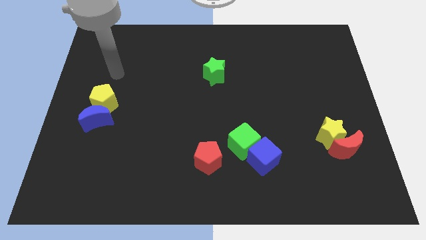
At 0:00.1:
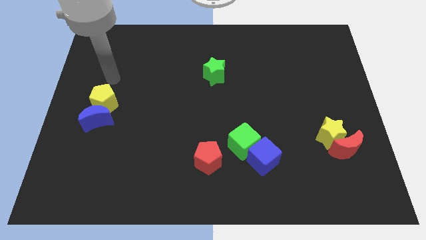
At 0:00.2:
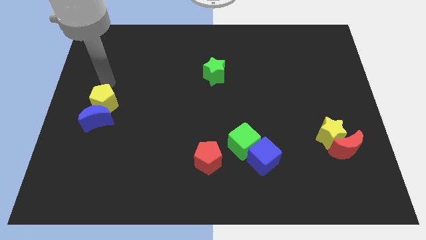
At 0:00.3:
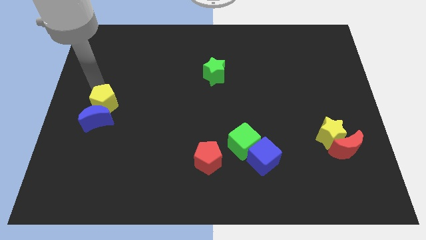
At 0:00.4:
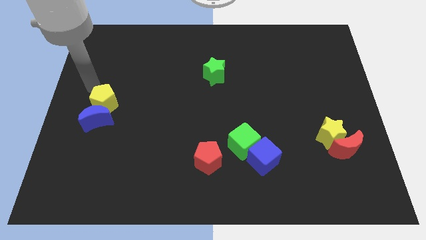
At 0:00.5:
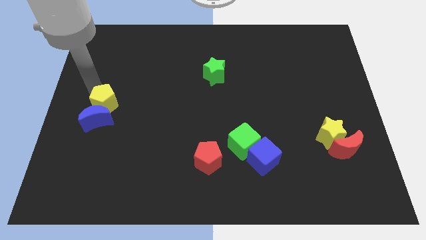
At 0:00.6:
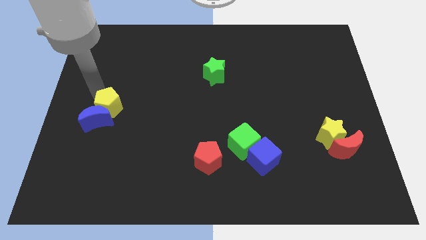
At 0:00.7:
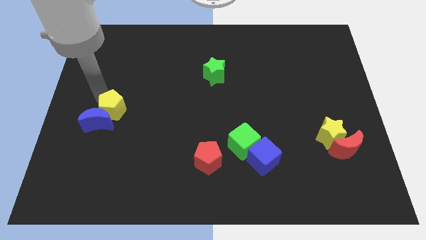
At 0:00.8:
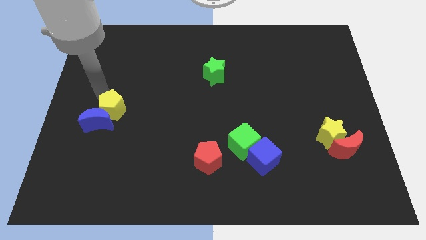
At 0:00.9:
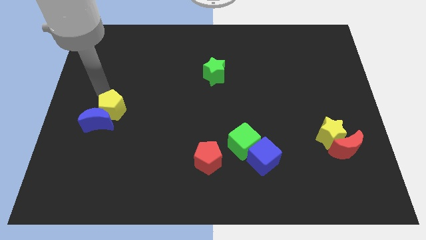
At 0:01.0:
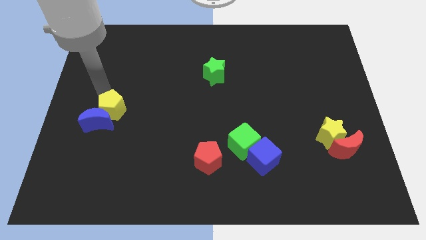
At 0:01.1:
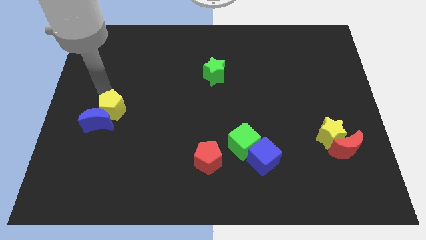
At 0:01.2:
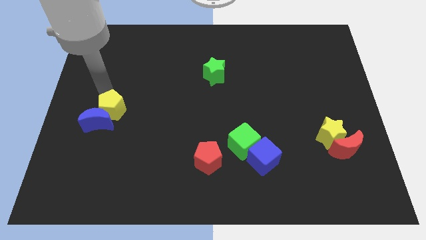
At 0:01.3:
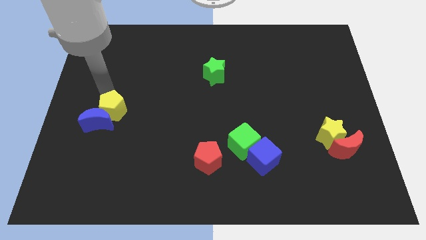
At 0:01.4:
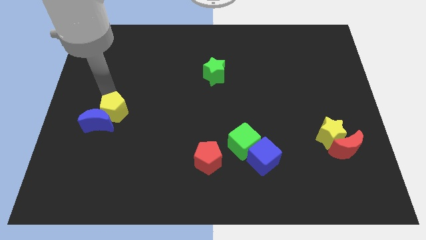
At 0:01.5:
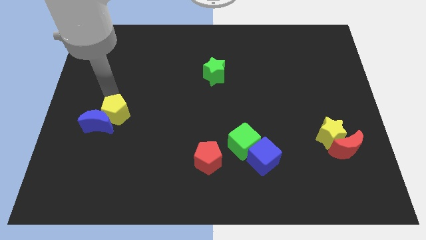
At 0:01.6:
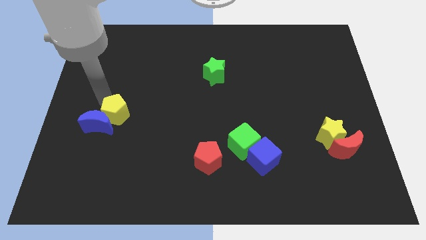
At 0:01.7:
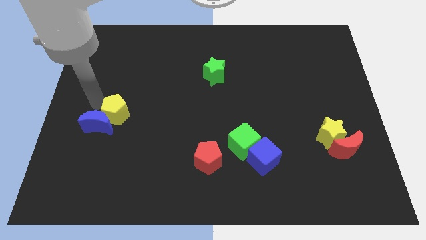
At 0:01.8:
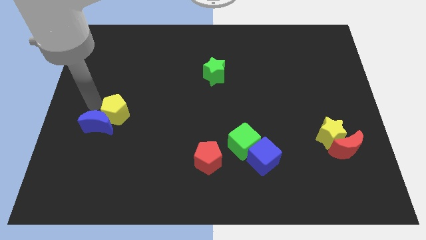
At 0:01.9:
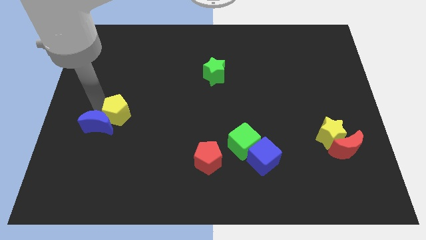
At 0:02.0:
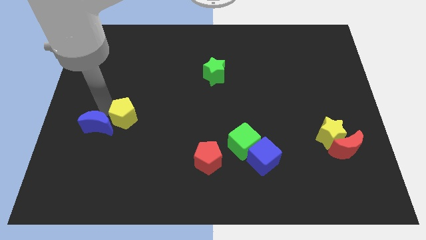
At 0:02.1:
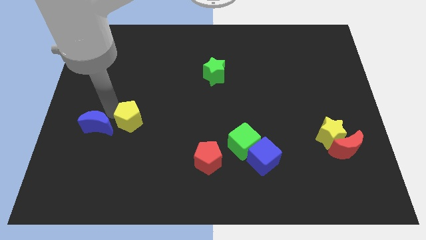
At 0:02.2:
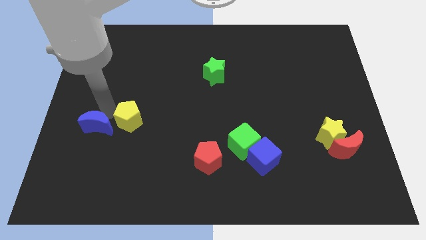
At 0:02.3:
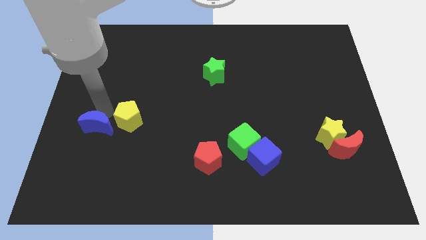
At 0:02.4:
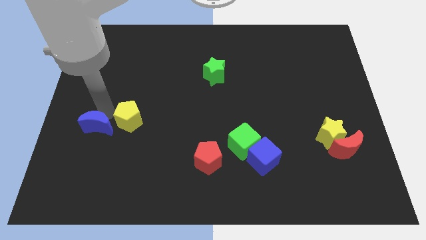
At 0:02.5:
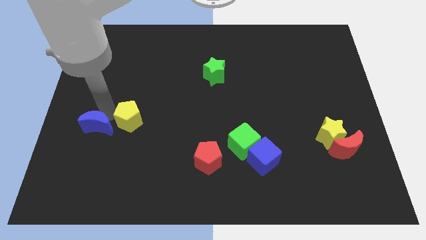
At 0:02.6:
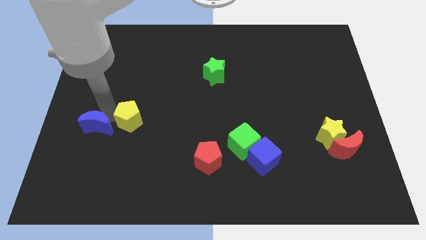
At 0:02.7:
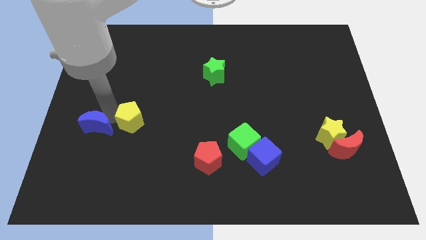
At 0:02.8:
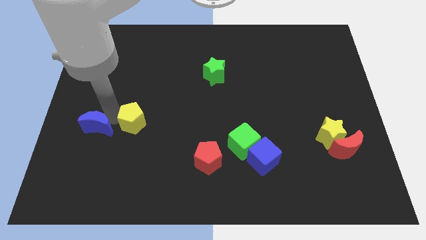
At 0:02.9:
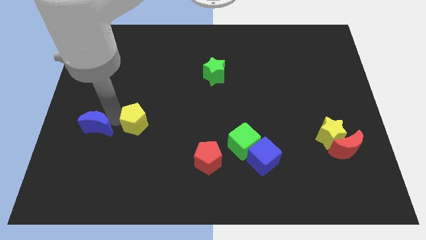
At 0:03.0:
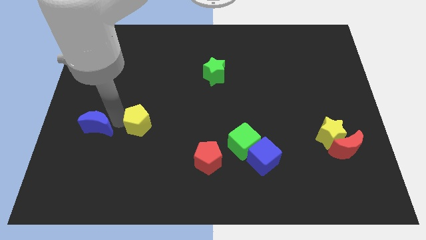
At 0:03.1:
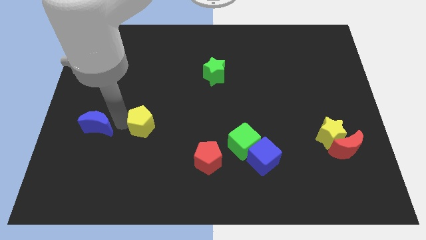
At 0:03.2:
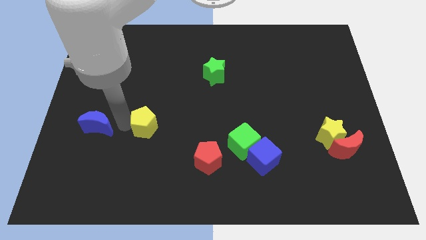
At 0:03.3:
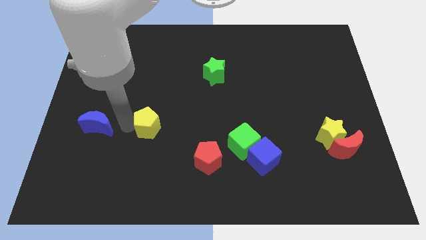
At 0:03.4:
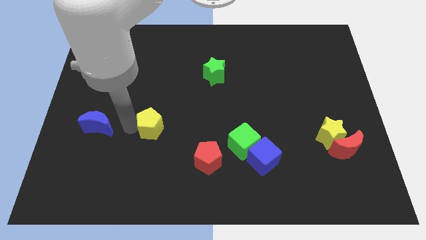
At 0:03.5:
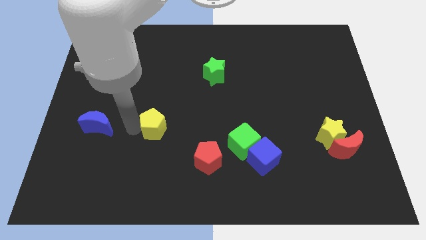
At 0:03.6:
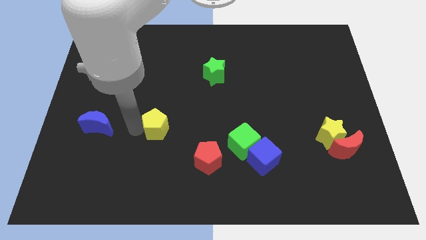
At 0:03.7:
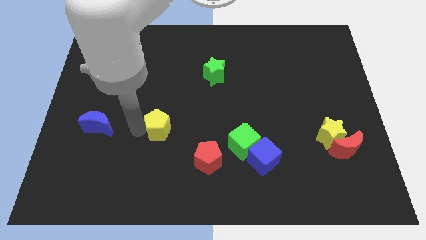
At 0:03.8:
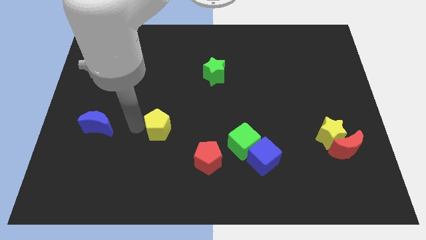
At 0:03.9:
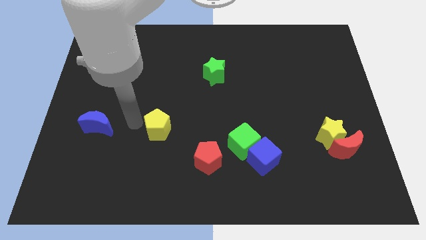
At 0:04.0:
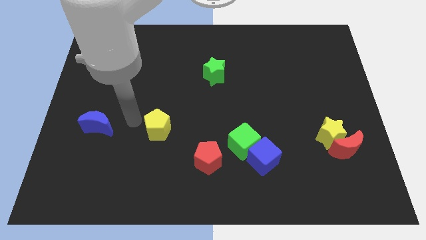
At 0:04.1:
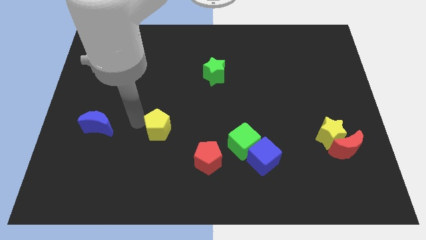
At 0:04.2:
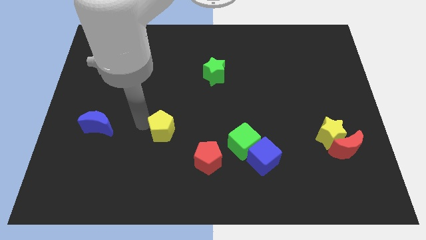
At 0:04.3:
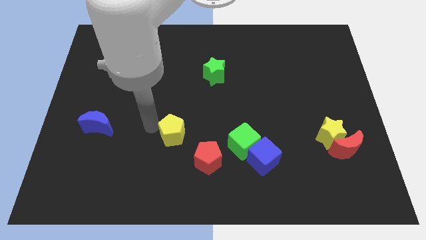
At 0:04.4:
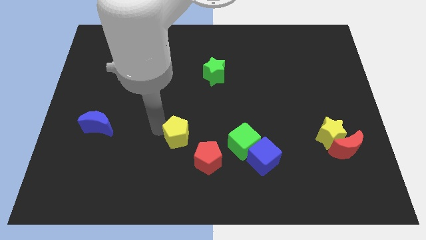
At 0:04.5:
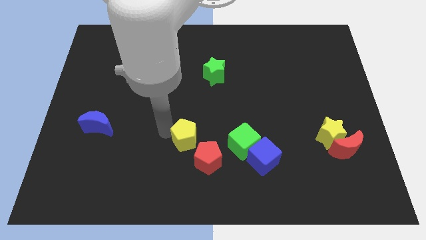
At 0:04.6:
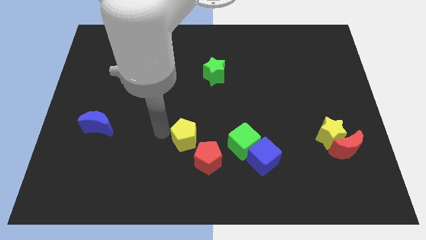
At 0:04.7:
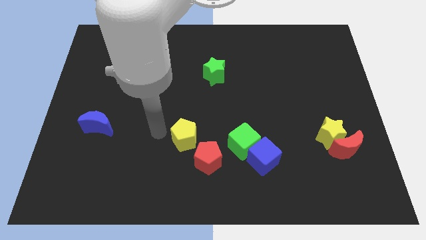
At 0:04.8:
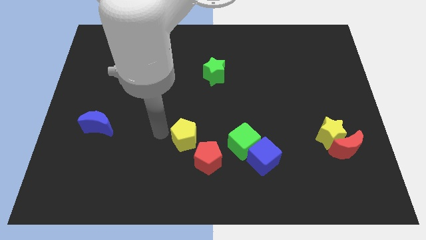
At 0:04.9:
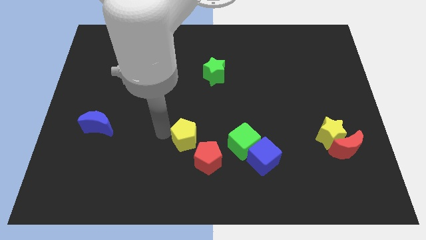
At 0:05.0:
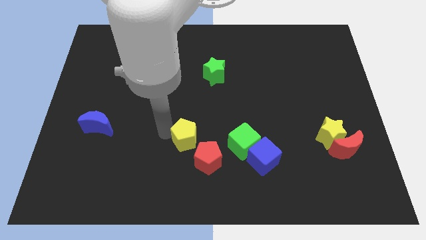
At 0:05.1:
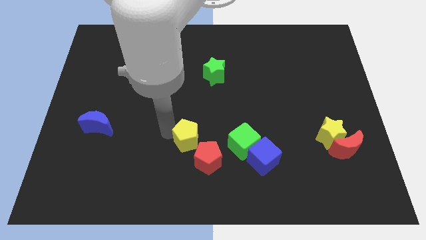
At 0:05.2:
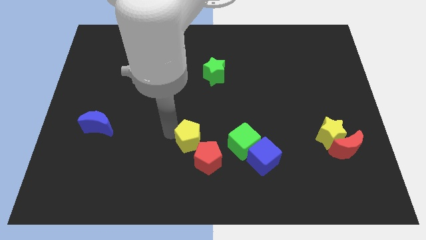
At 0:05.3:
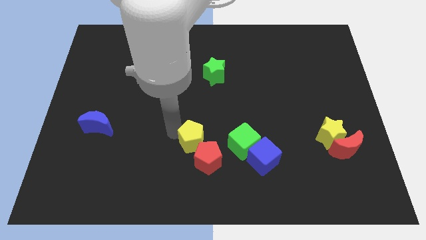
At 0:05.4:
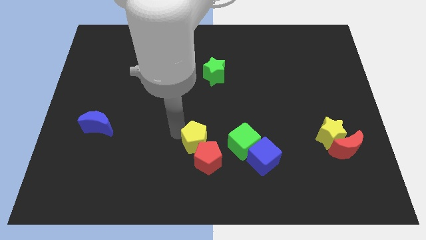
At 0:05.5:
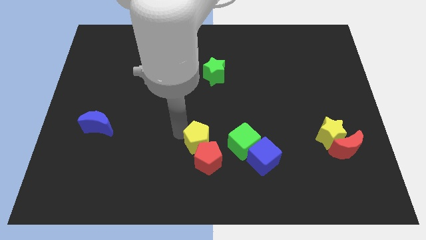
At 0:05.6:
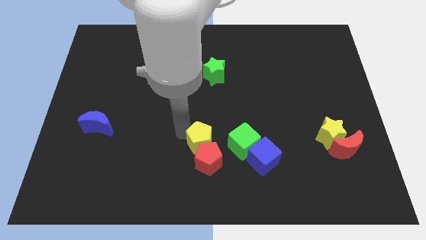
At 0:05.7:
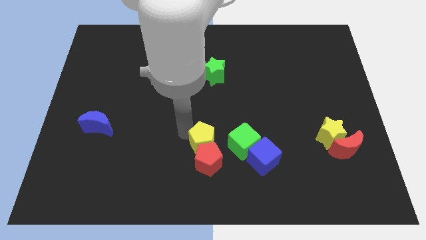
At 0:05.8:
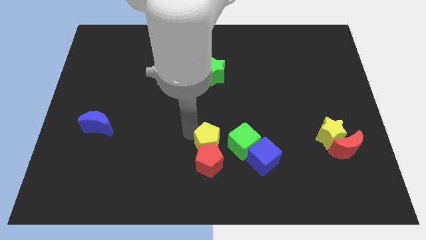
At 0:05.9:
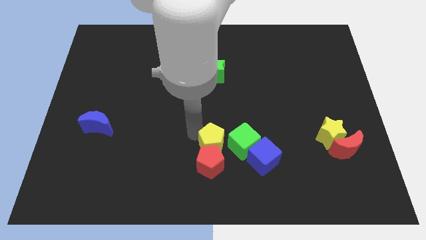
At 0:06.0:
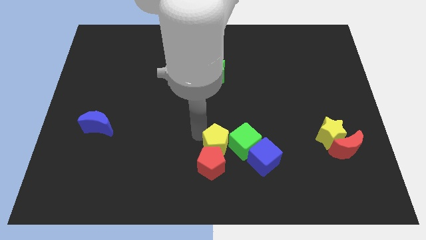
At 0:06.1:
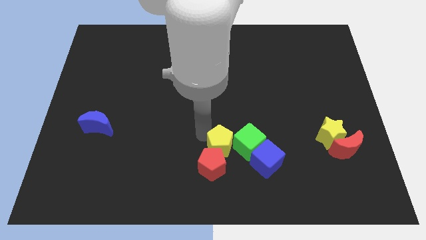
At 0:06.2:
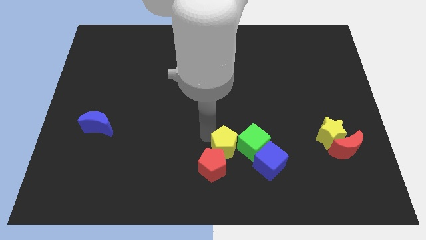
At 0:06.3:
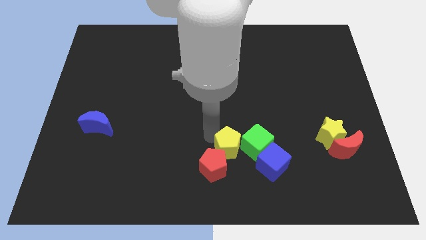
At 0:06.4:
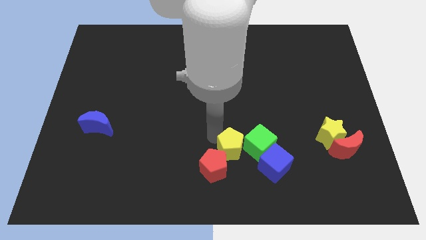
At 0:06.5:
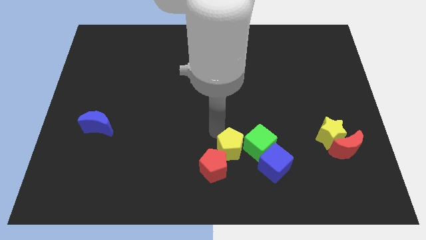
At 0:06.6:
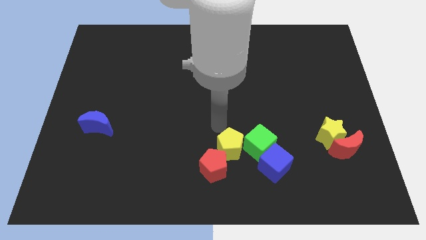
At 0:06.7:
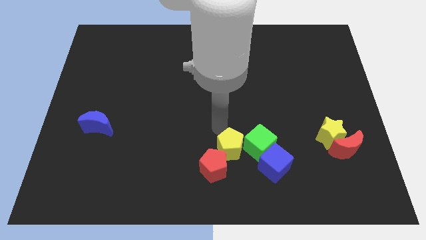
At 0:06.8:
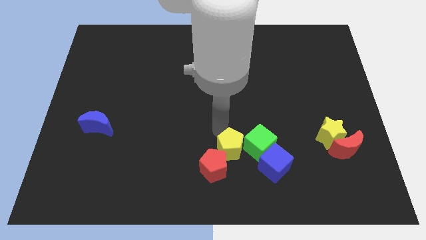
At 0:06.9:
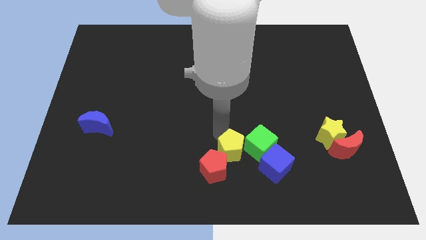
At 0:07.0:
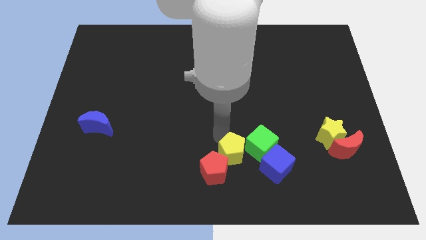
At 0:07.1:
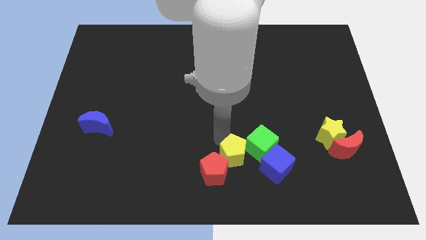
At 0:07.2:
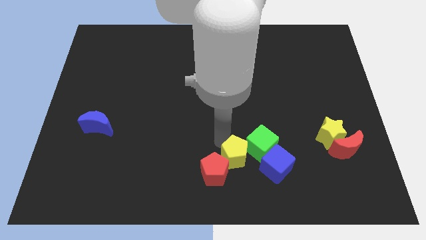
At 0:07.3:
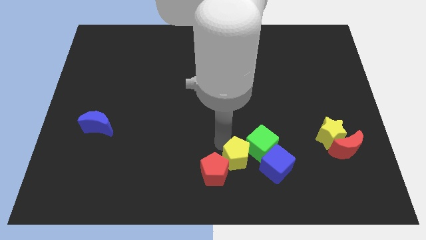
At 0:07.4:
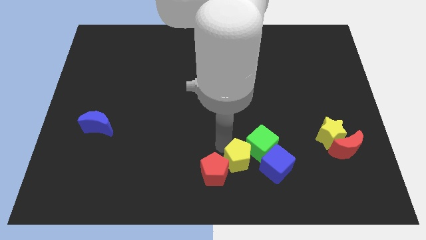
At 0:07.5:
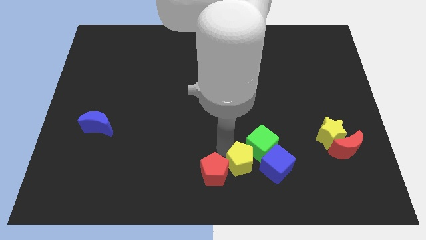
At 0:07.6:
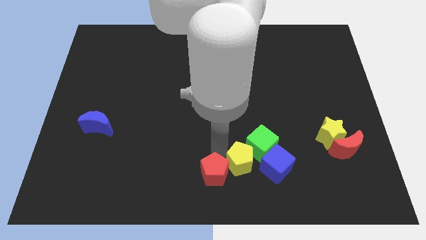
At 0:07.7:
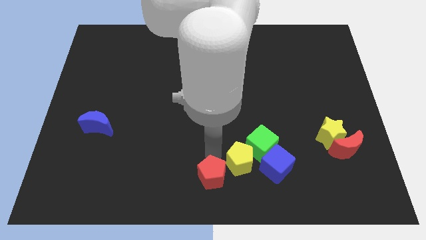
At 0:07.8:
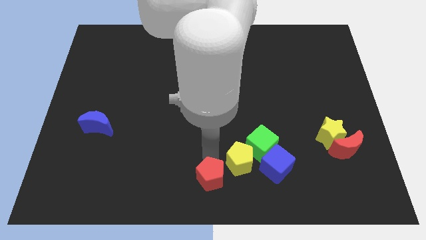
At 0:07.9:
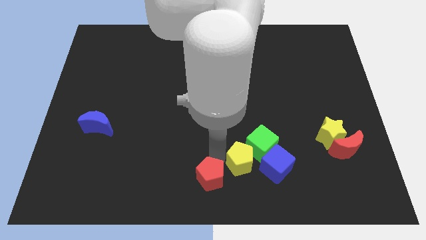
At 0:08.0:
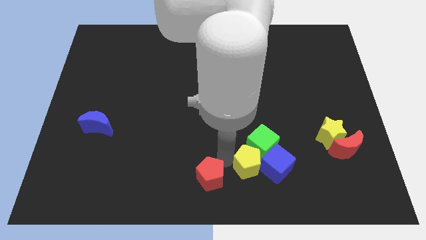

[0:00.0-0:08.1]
move the yellow pentagon next to the blue cube
